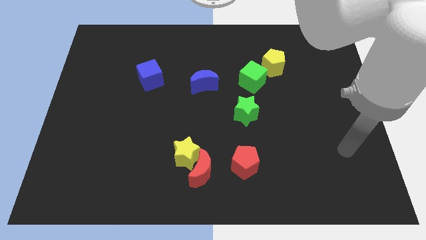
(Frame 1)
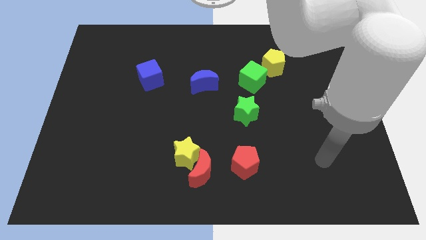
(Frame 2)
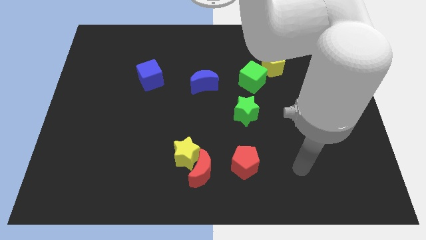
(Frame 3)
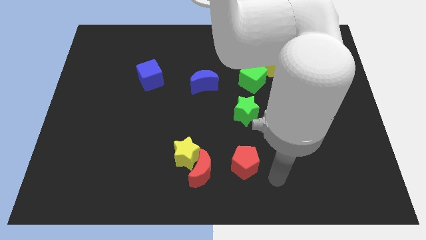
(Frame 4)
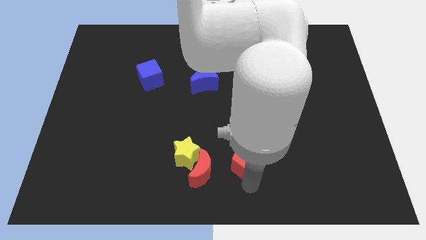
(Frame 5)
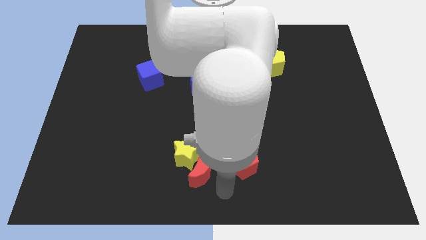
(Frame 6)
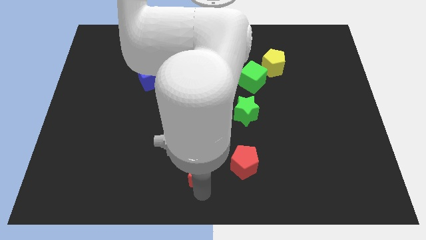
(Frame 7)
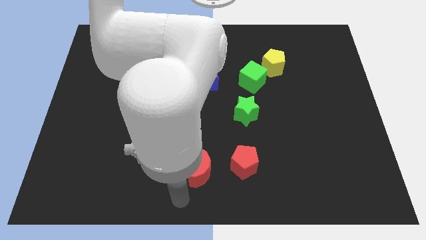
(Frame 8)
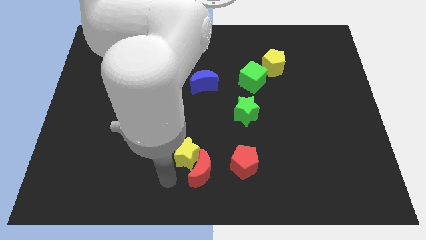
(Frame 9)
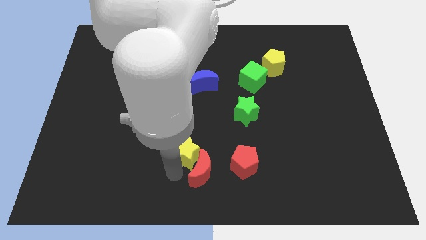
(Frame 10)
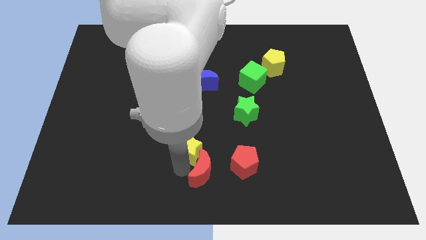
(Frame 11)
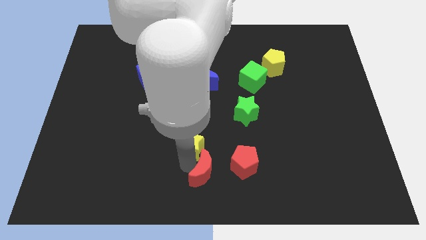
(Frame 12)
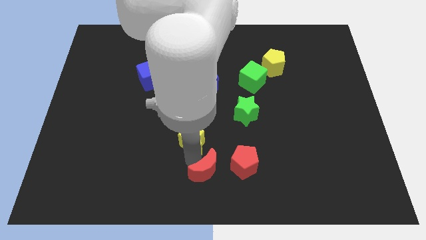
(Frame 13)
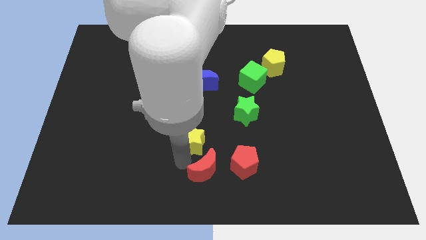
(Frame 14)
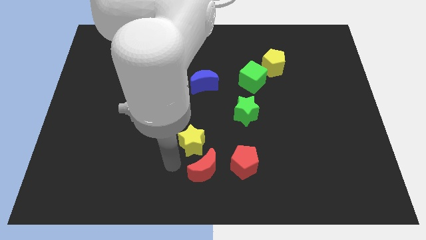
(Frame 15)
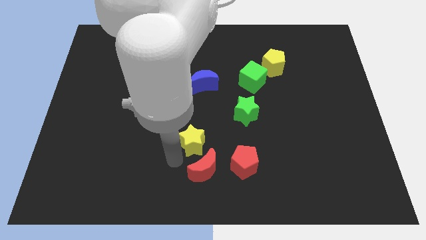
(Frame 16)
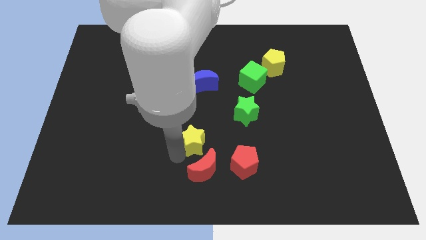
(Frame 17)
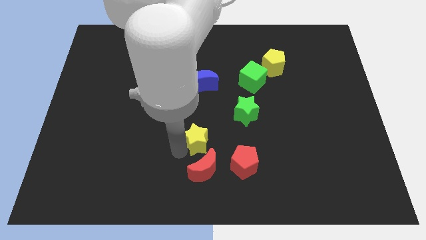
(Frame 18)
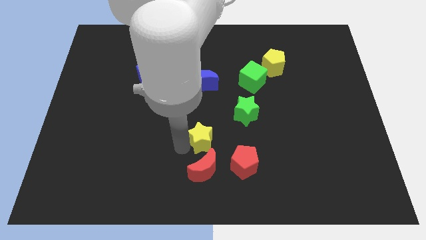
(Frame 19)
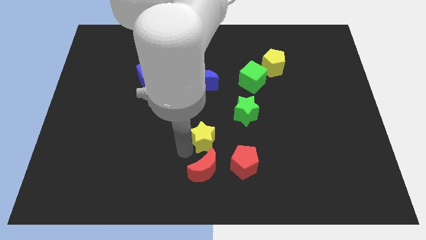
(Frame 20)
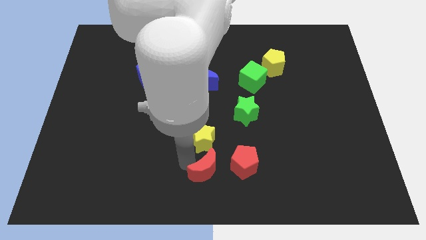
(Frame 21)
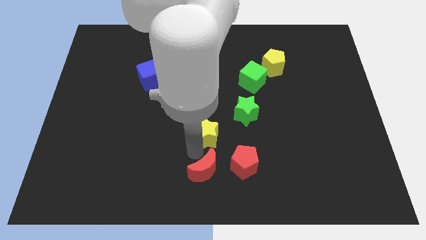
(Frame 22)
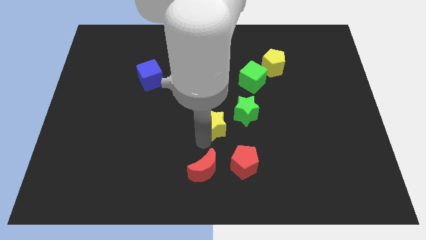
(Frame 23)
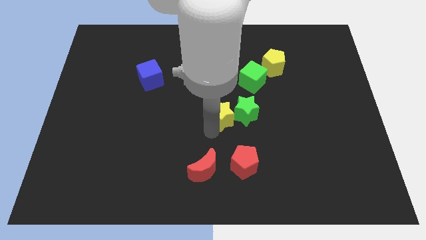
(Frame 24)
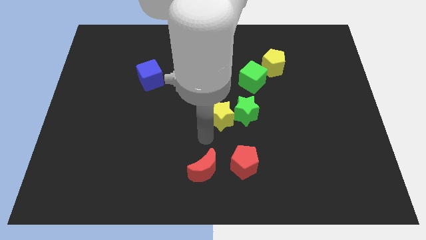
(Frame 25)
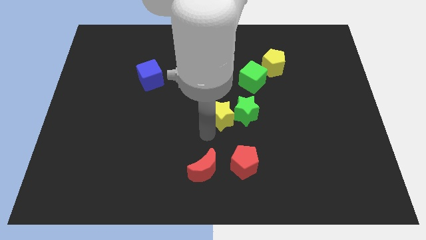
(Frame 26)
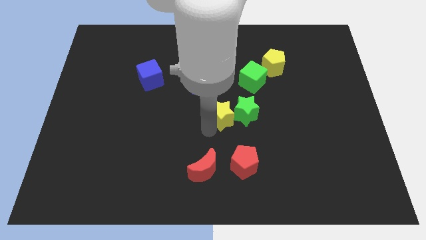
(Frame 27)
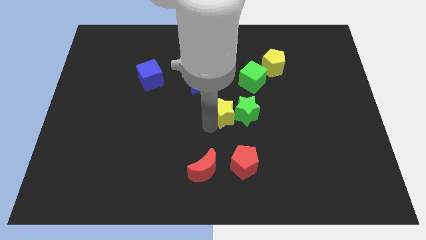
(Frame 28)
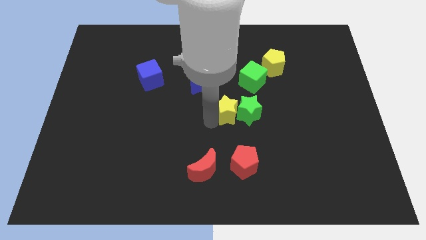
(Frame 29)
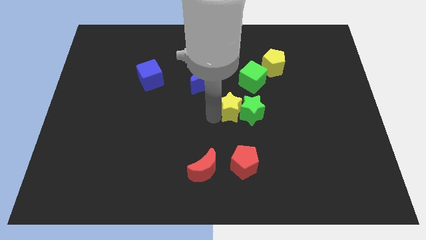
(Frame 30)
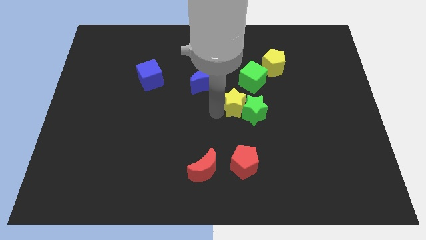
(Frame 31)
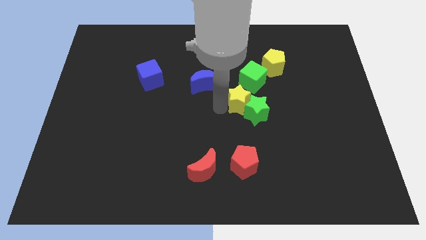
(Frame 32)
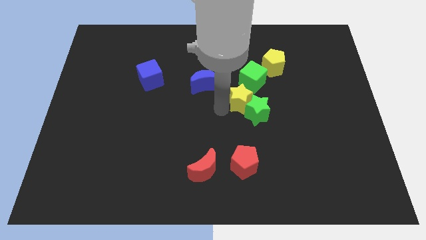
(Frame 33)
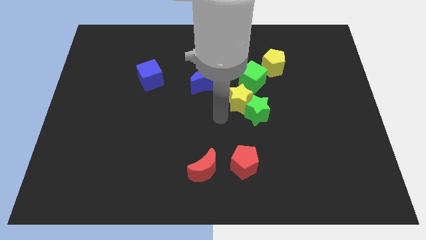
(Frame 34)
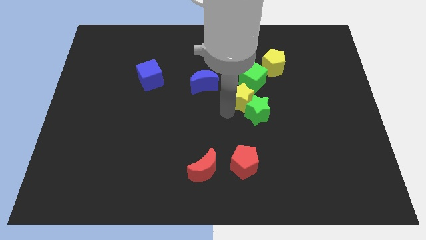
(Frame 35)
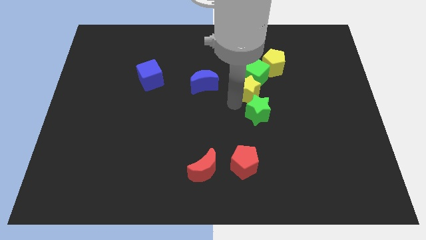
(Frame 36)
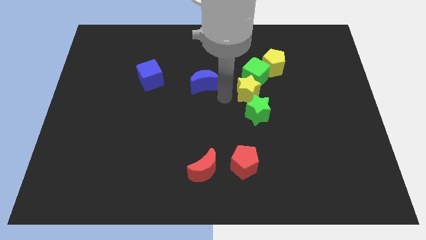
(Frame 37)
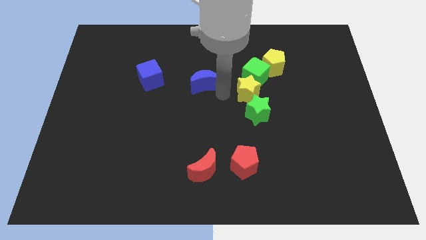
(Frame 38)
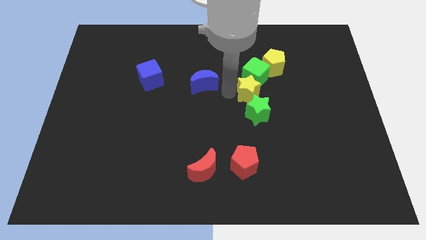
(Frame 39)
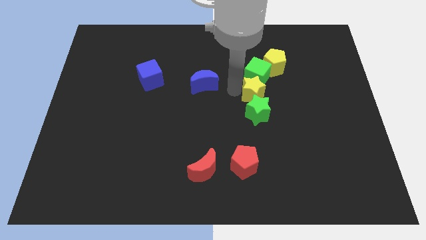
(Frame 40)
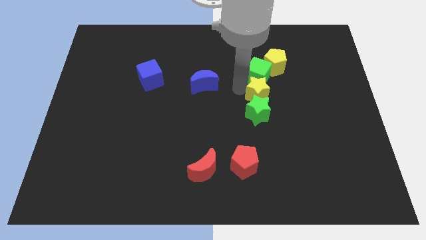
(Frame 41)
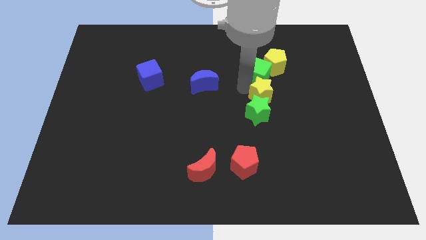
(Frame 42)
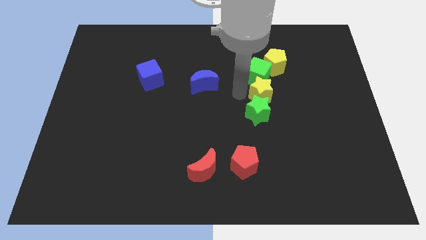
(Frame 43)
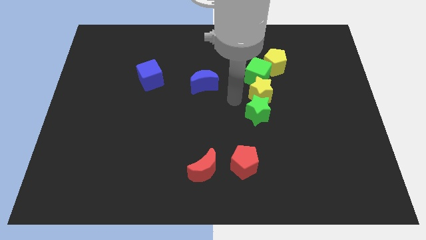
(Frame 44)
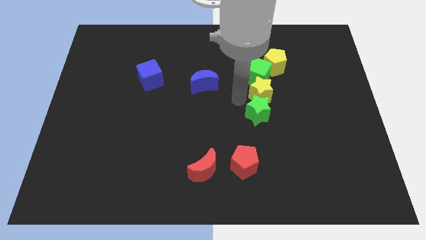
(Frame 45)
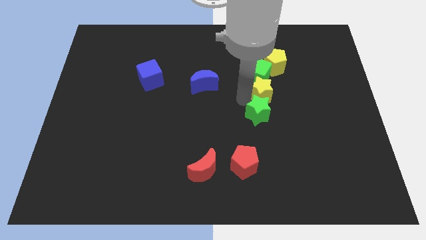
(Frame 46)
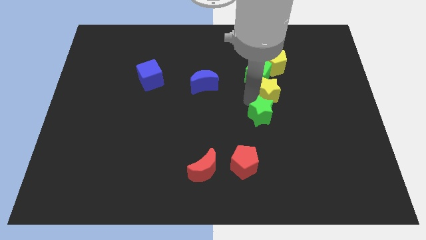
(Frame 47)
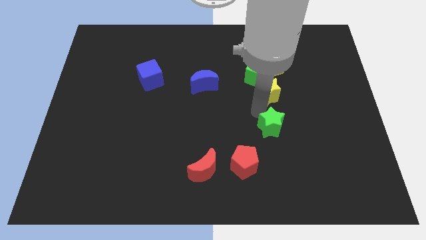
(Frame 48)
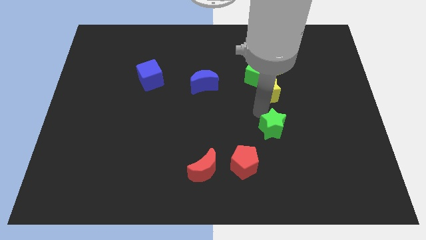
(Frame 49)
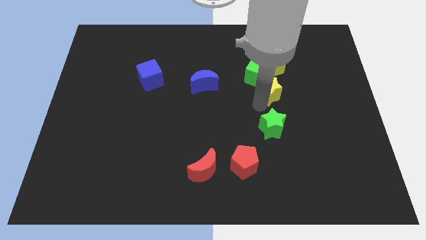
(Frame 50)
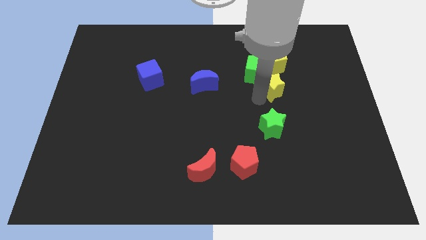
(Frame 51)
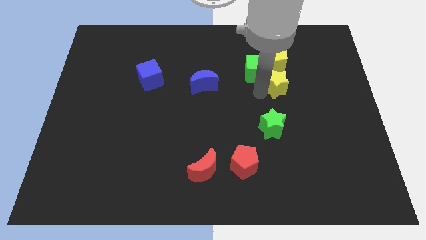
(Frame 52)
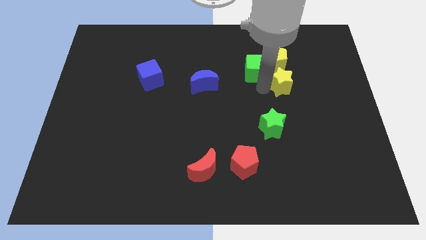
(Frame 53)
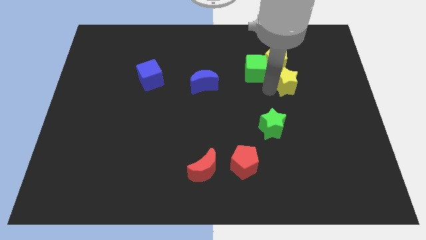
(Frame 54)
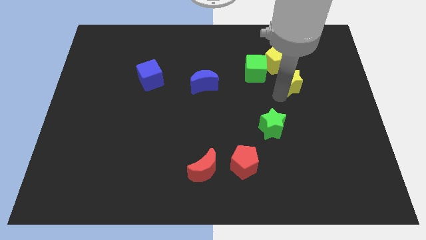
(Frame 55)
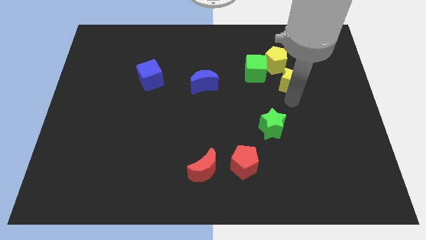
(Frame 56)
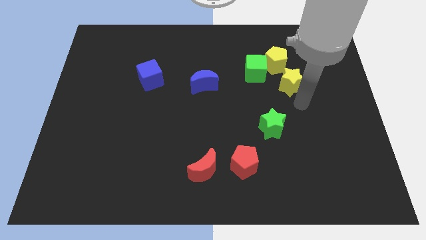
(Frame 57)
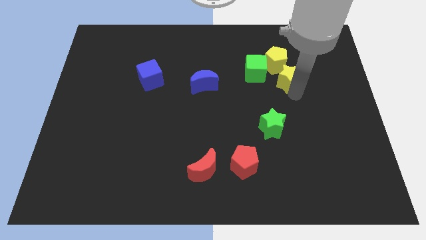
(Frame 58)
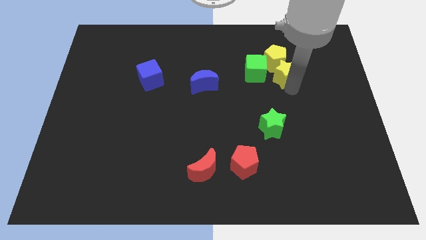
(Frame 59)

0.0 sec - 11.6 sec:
push the yellow star next to the yellow pentagon

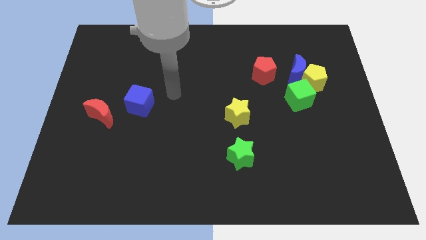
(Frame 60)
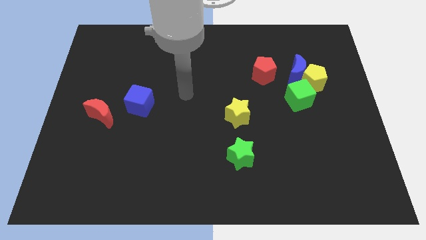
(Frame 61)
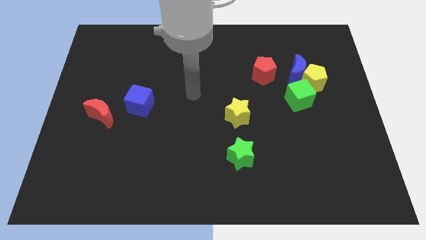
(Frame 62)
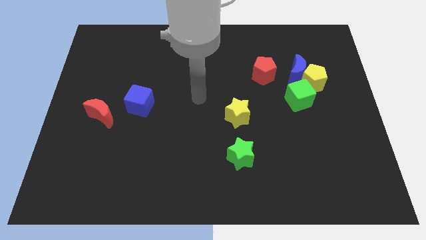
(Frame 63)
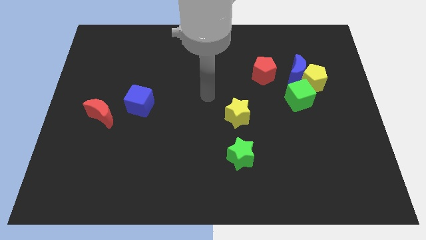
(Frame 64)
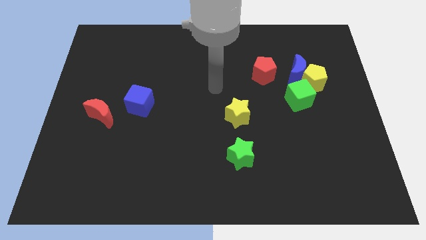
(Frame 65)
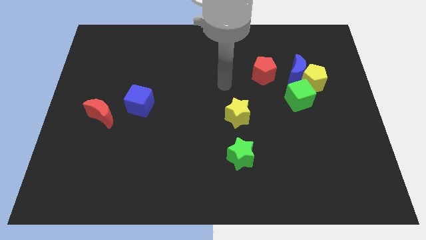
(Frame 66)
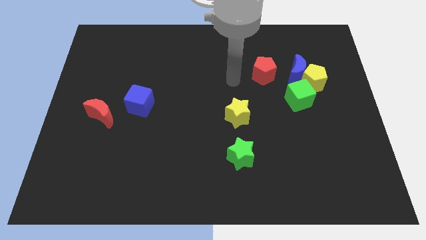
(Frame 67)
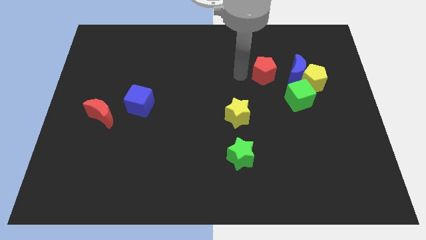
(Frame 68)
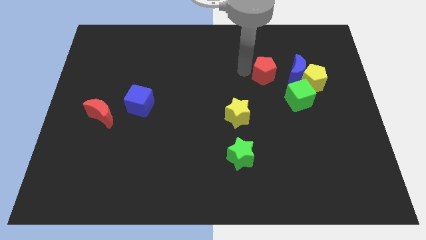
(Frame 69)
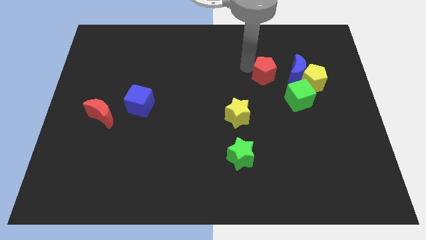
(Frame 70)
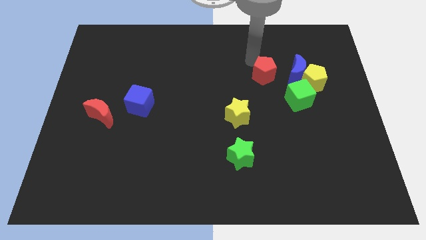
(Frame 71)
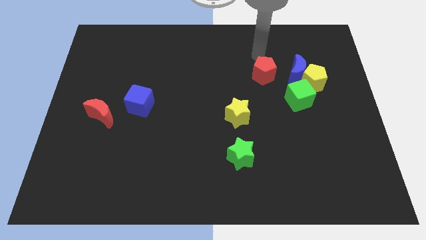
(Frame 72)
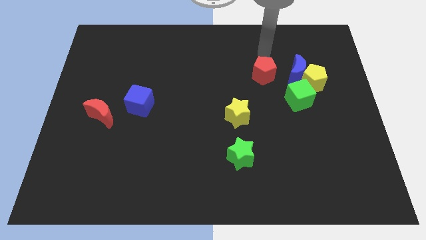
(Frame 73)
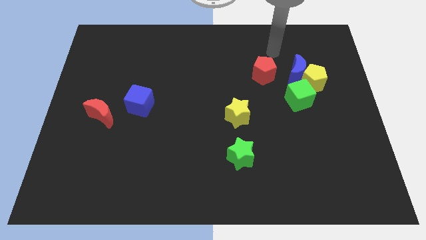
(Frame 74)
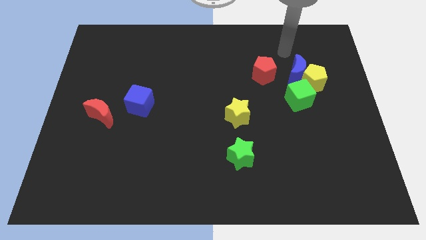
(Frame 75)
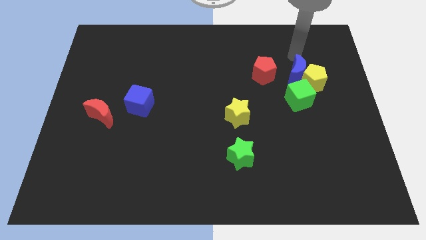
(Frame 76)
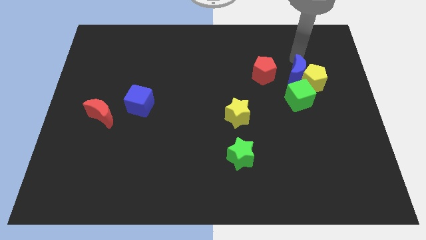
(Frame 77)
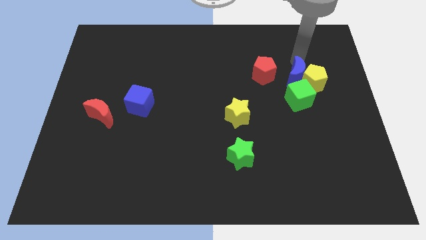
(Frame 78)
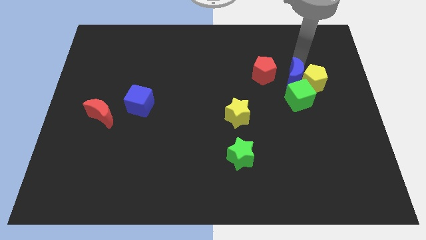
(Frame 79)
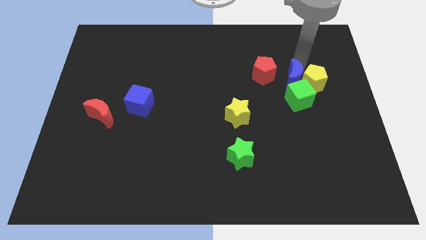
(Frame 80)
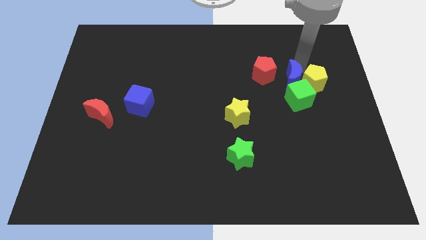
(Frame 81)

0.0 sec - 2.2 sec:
move the blue moon close to the green cube
